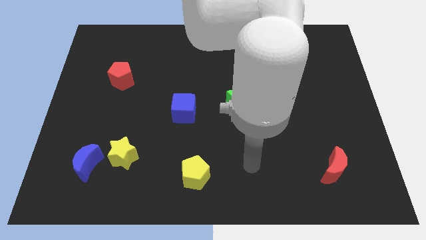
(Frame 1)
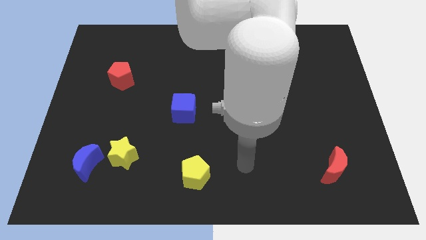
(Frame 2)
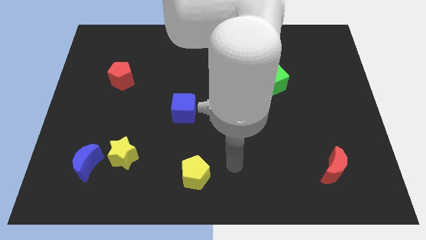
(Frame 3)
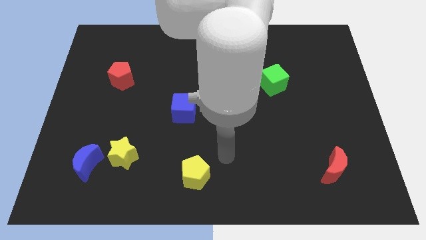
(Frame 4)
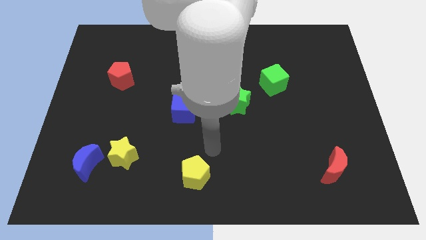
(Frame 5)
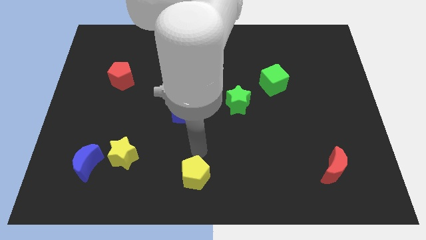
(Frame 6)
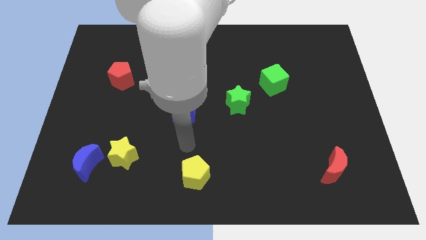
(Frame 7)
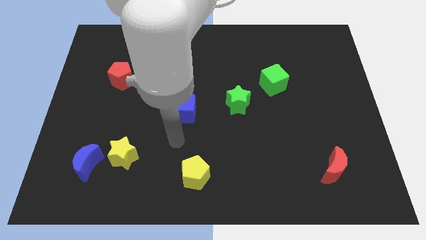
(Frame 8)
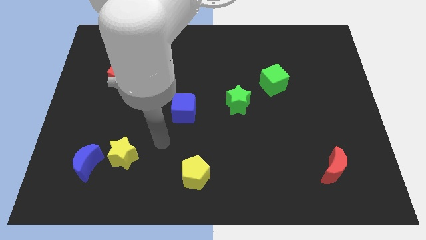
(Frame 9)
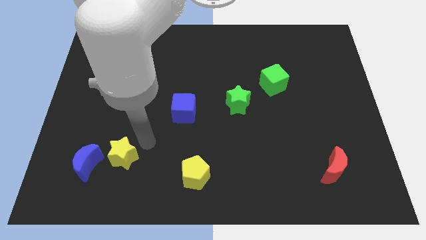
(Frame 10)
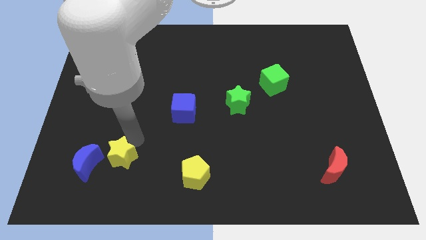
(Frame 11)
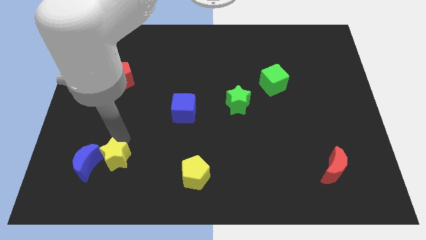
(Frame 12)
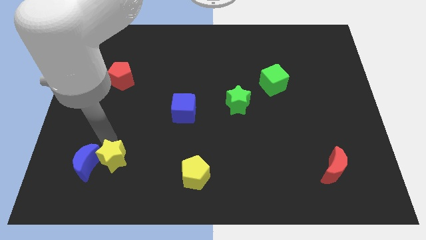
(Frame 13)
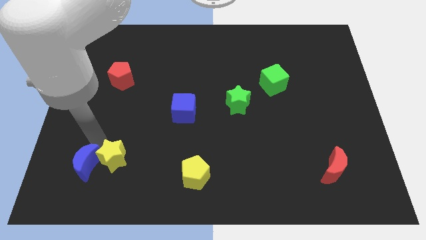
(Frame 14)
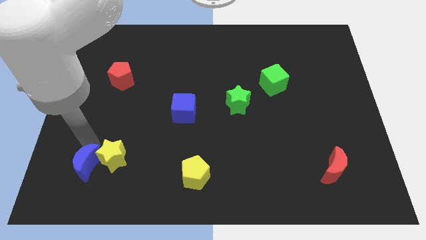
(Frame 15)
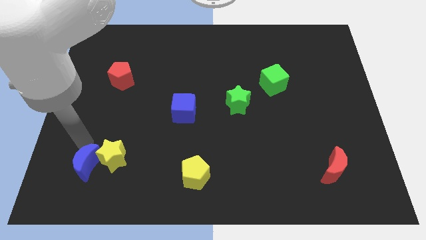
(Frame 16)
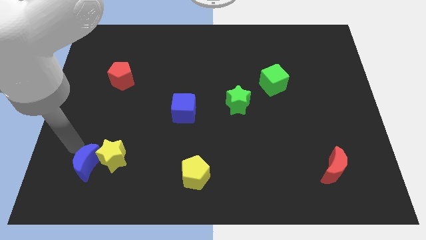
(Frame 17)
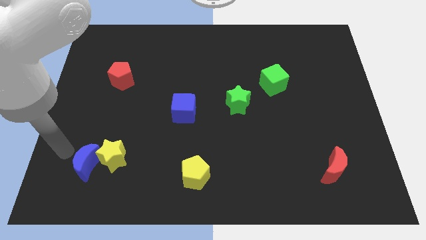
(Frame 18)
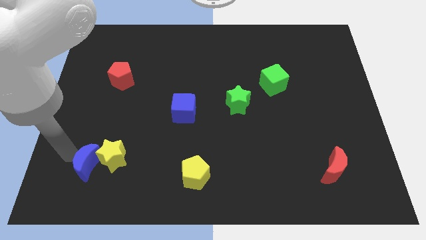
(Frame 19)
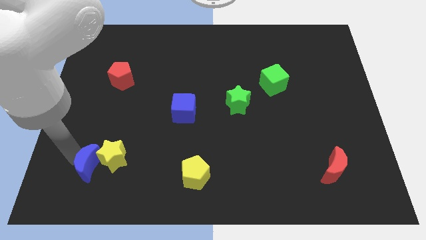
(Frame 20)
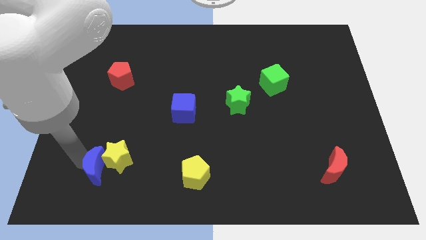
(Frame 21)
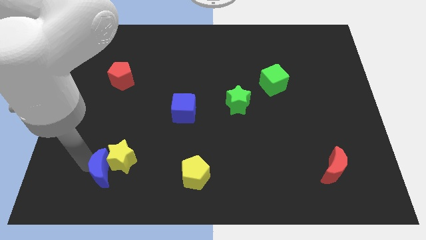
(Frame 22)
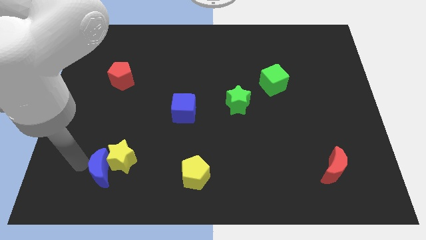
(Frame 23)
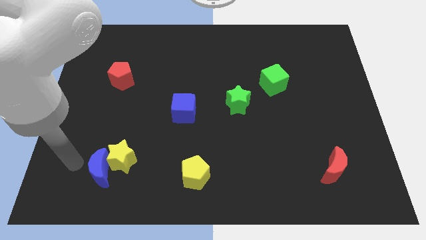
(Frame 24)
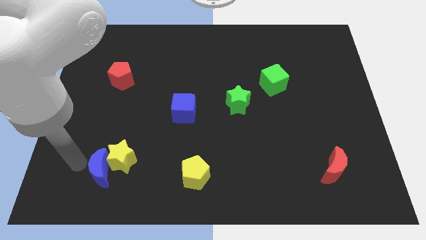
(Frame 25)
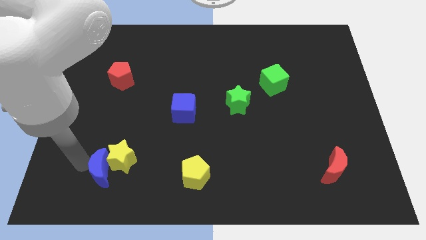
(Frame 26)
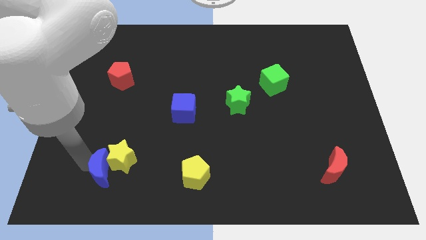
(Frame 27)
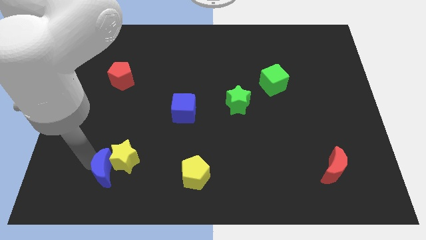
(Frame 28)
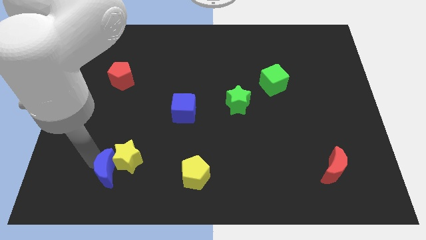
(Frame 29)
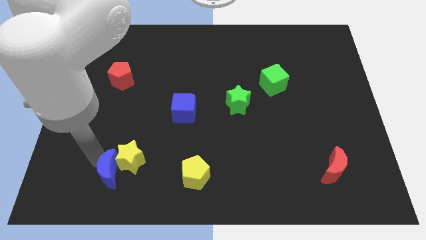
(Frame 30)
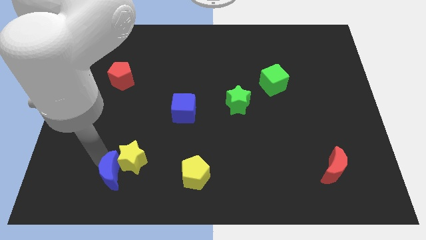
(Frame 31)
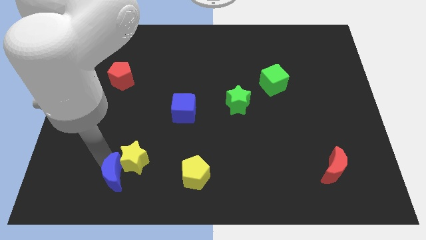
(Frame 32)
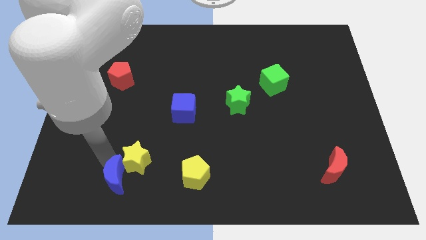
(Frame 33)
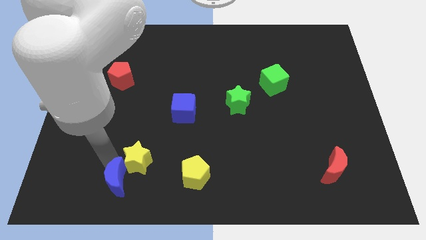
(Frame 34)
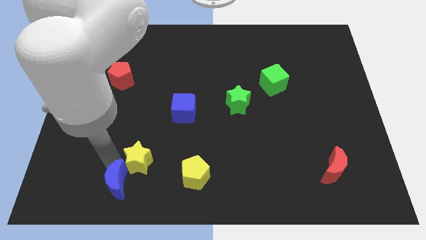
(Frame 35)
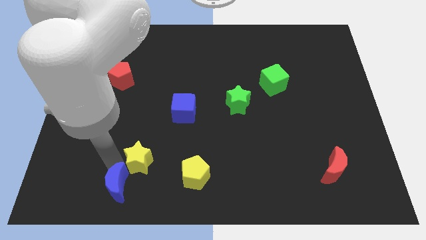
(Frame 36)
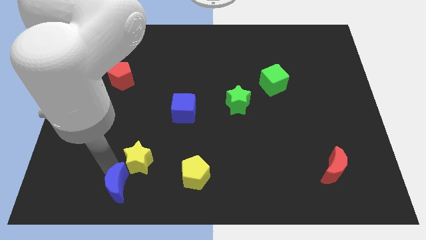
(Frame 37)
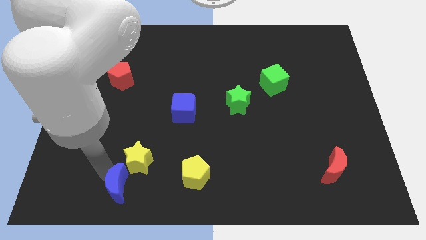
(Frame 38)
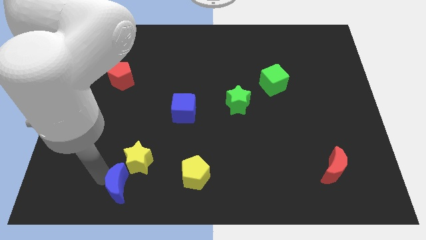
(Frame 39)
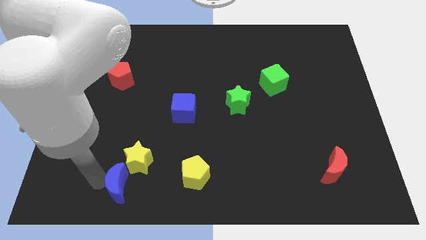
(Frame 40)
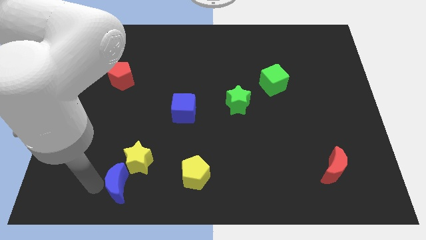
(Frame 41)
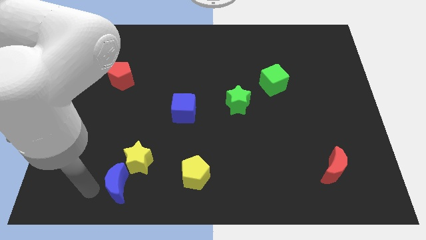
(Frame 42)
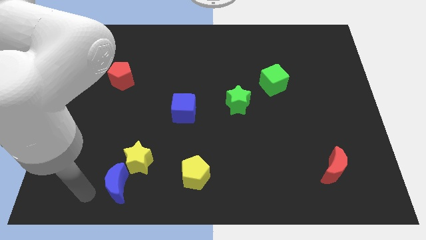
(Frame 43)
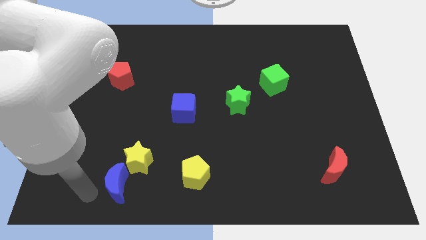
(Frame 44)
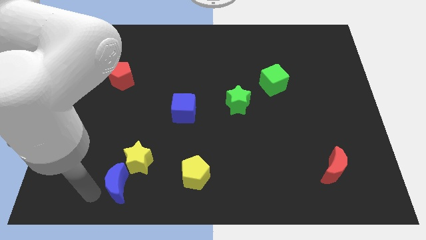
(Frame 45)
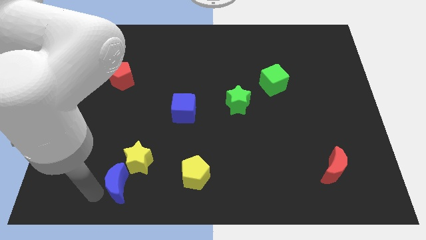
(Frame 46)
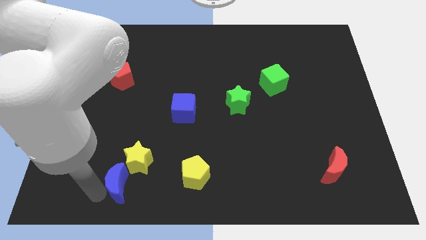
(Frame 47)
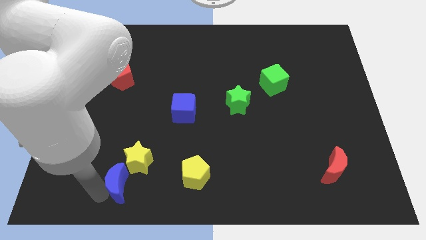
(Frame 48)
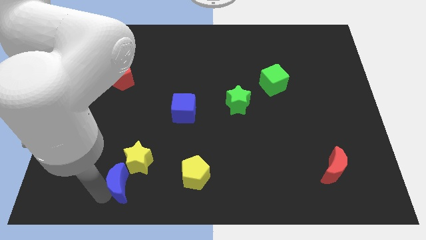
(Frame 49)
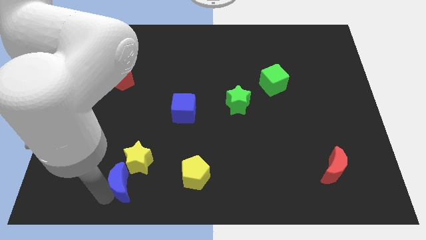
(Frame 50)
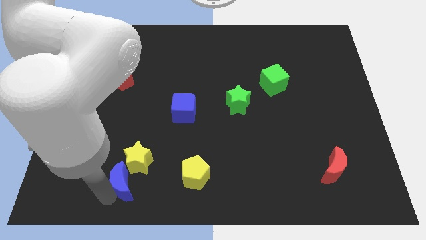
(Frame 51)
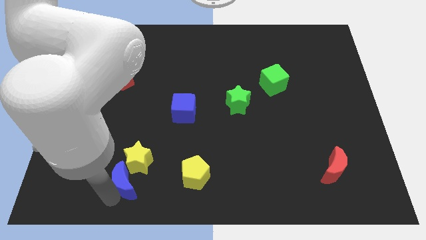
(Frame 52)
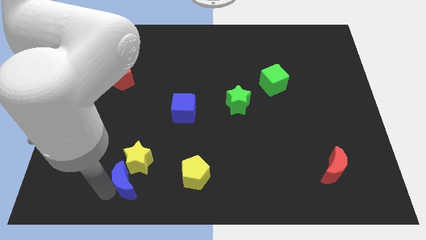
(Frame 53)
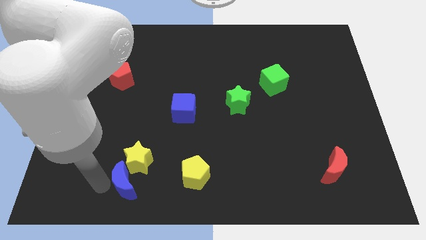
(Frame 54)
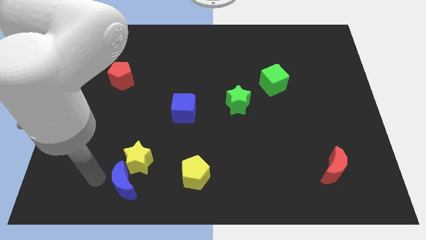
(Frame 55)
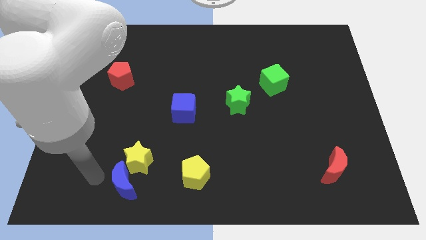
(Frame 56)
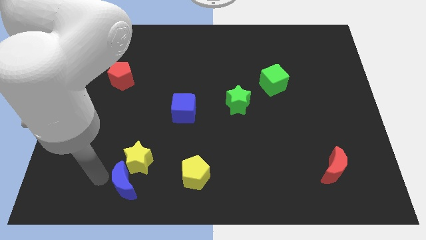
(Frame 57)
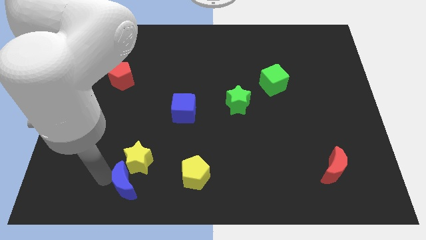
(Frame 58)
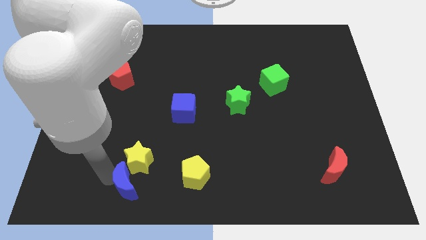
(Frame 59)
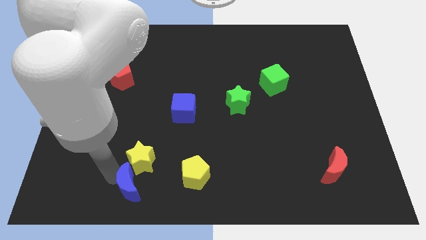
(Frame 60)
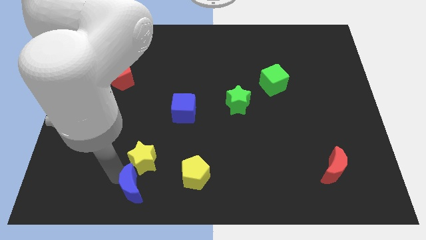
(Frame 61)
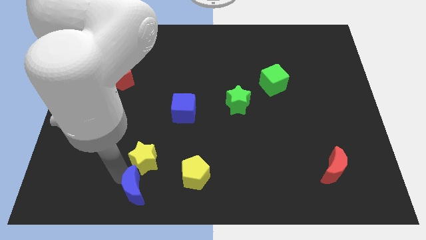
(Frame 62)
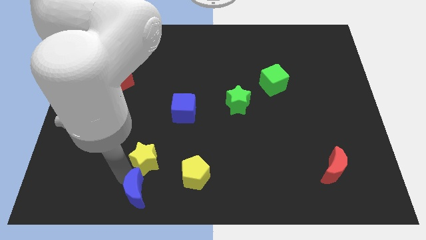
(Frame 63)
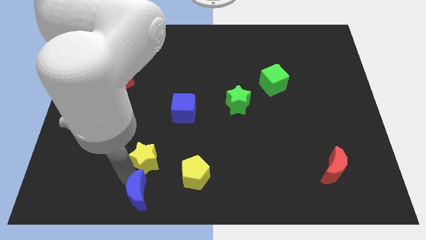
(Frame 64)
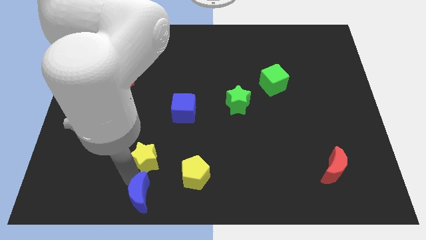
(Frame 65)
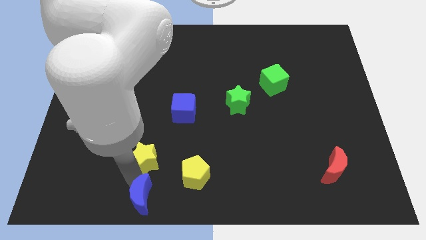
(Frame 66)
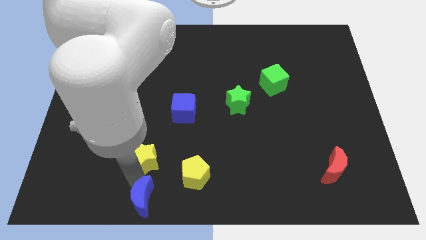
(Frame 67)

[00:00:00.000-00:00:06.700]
move the blue moon to the bottom side
